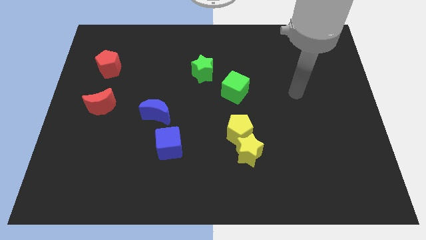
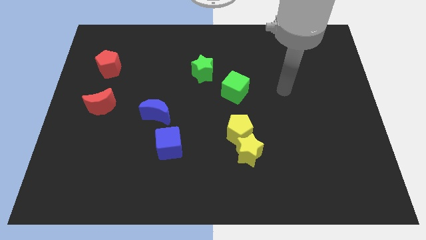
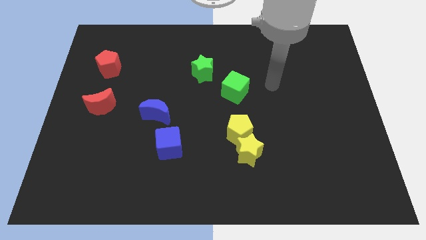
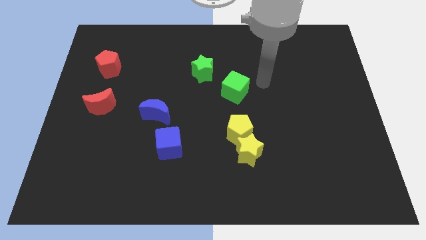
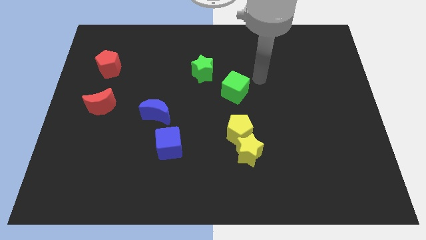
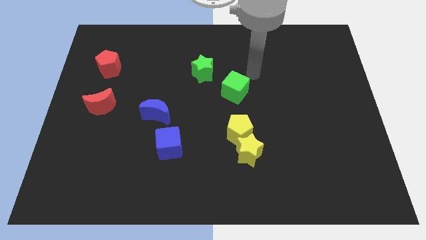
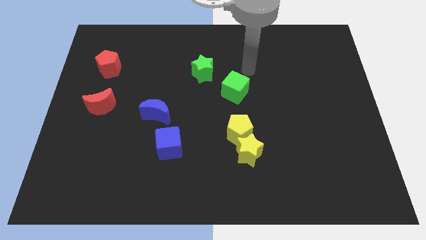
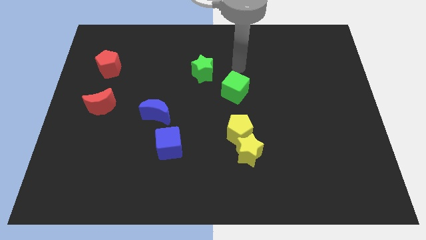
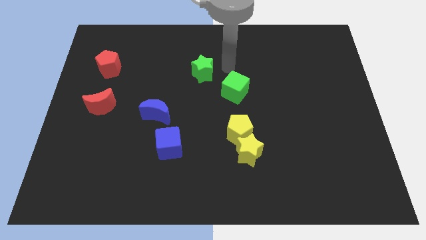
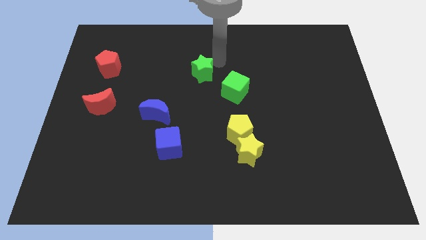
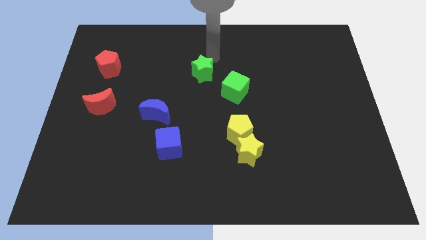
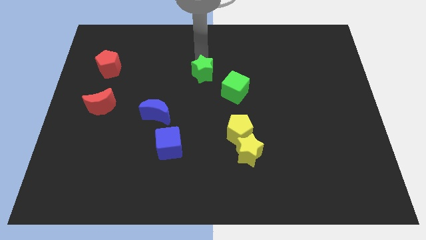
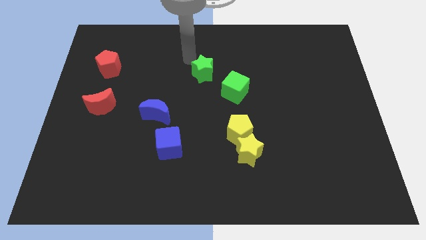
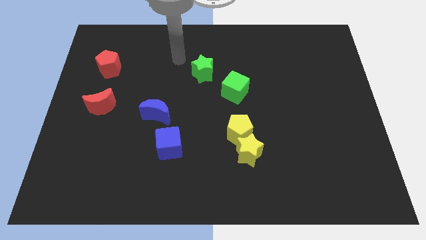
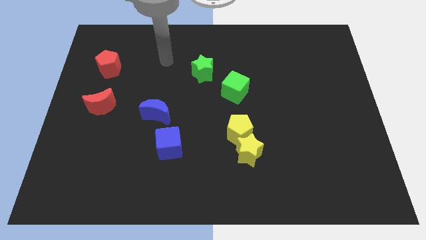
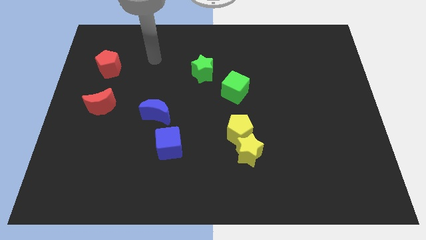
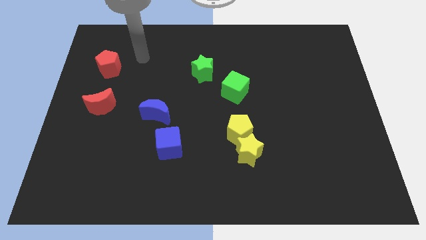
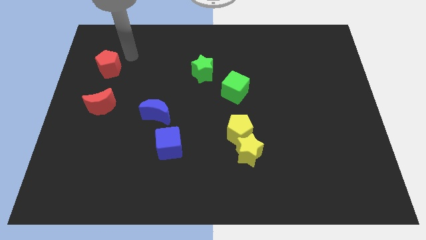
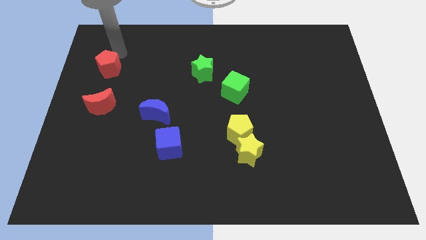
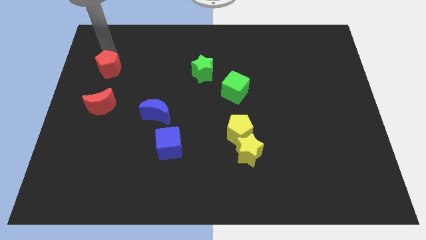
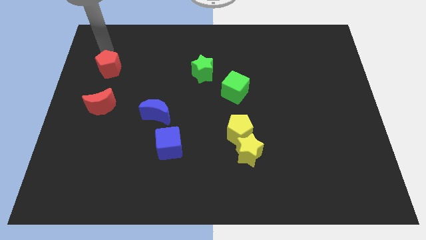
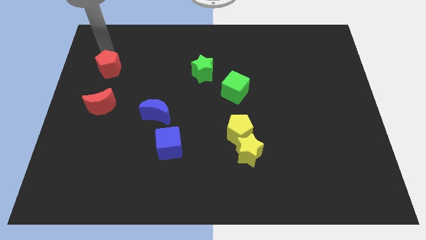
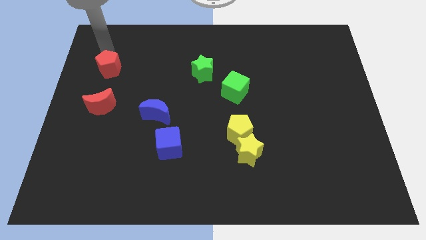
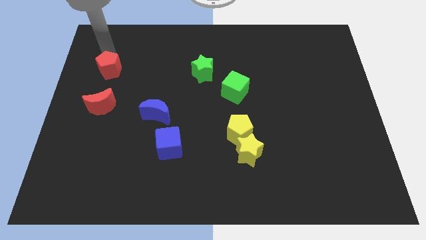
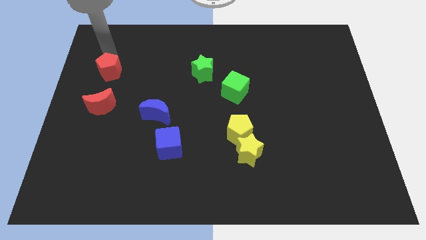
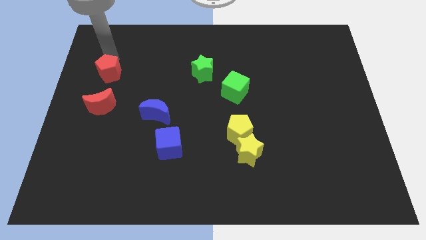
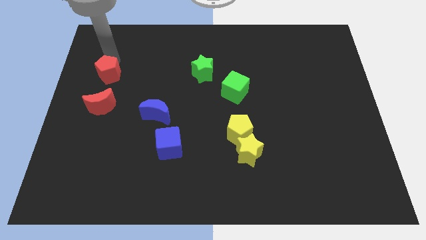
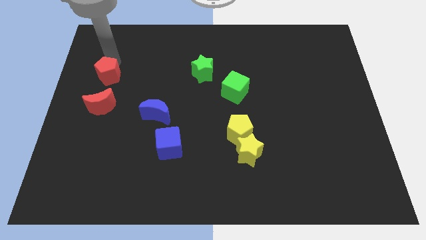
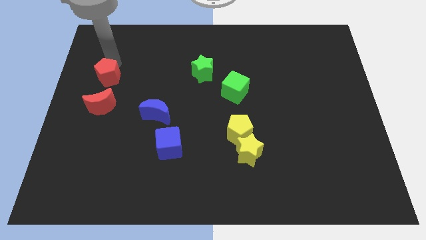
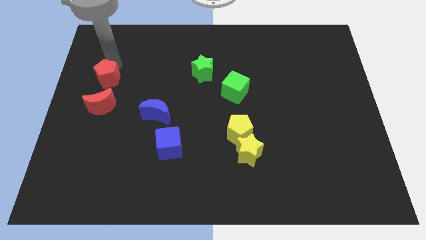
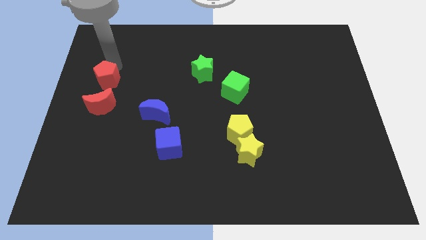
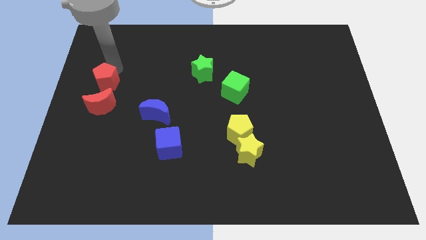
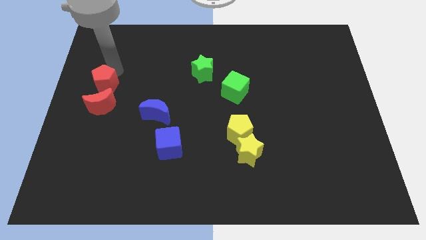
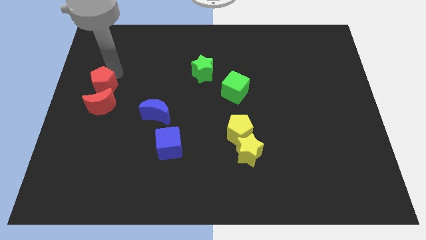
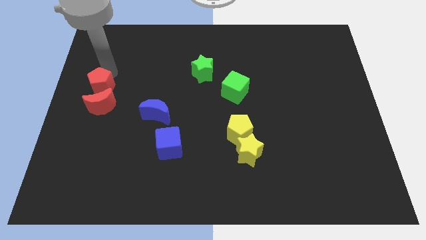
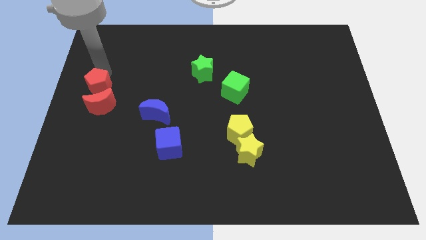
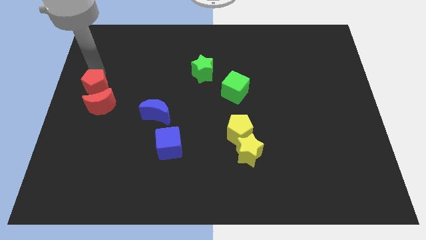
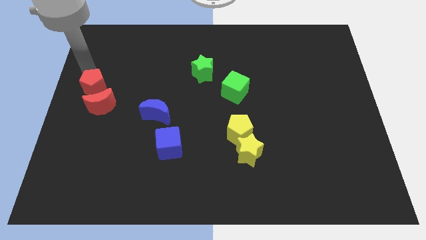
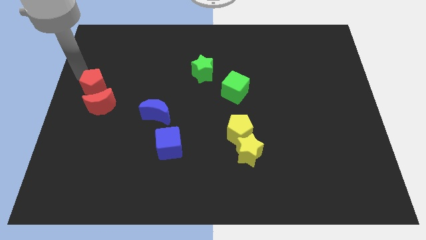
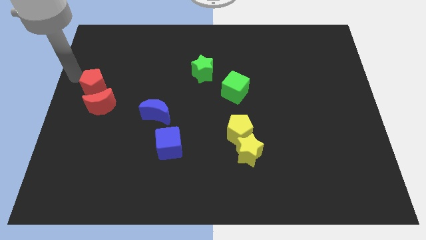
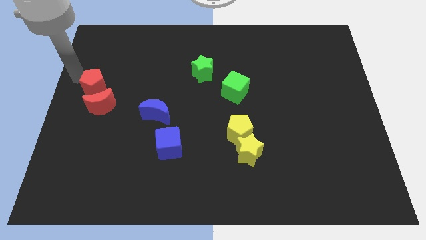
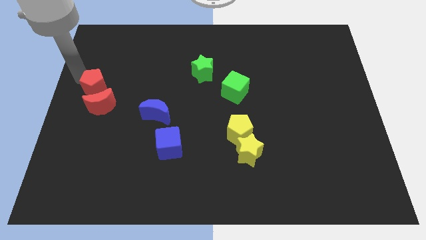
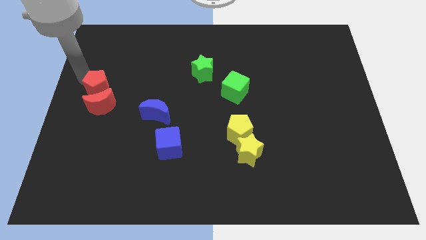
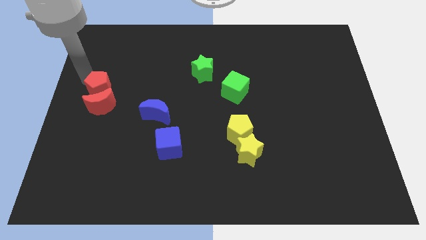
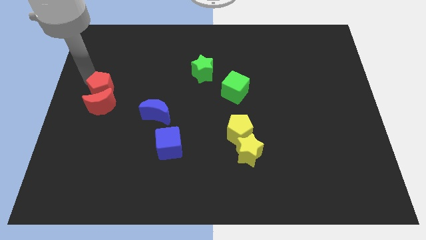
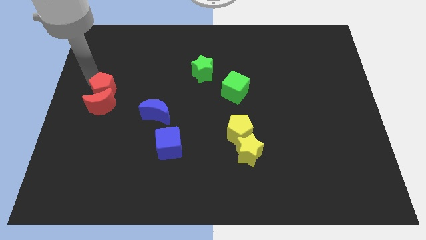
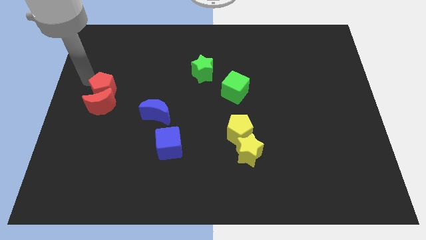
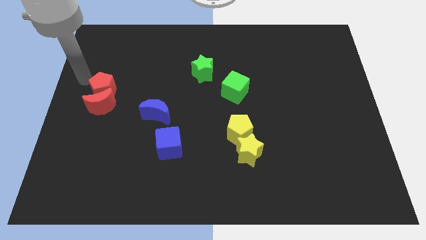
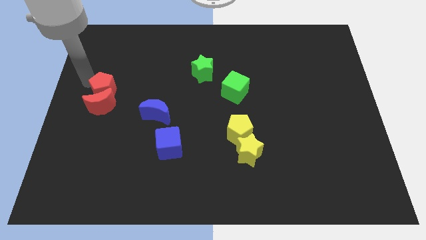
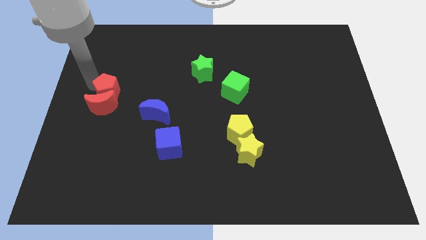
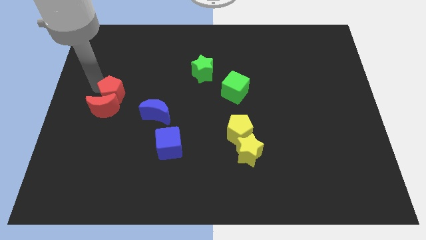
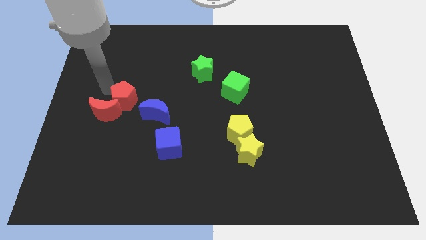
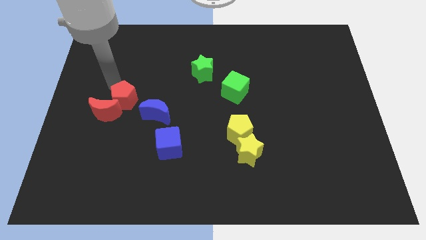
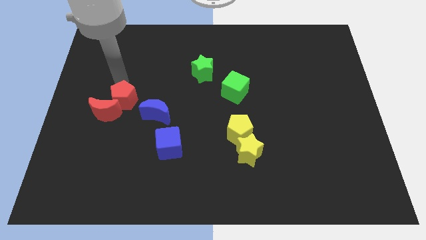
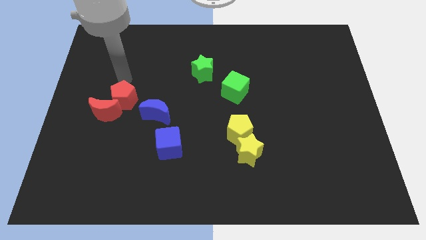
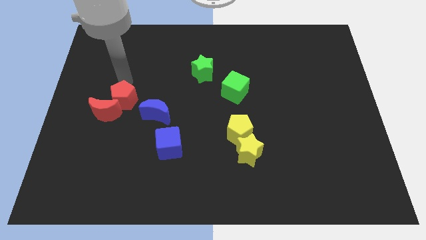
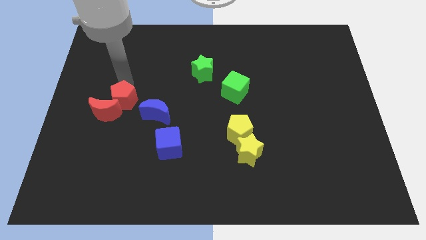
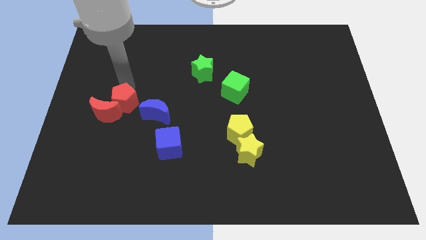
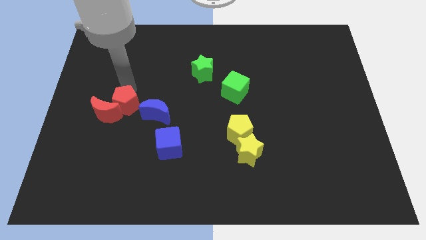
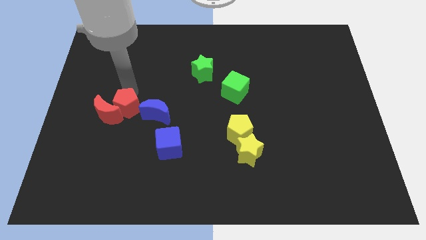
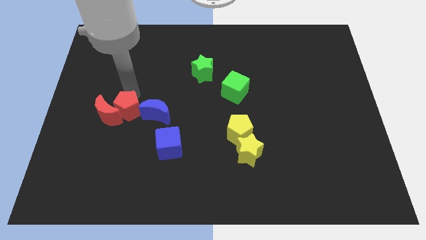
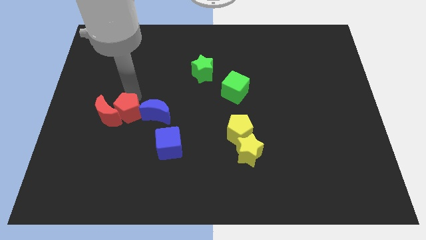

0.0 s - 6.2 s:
slide the red pentagon to the bottom right side of the red moon

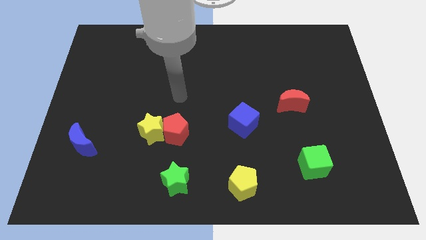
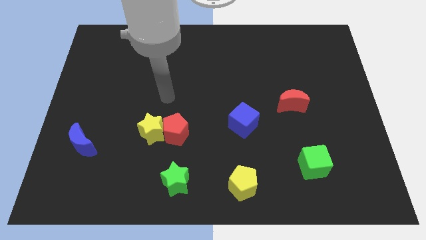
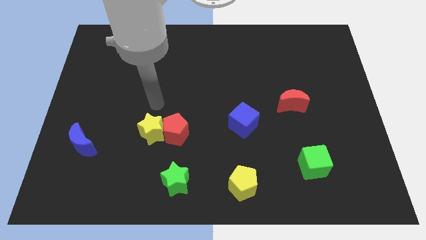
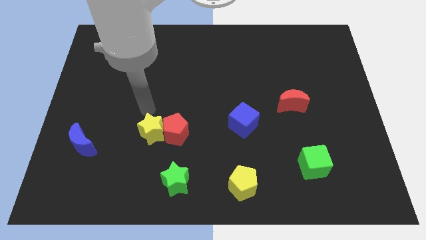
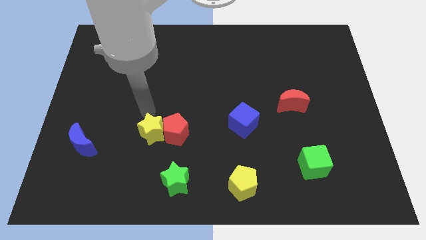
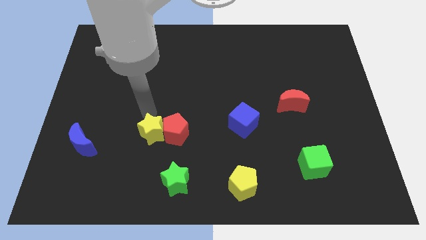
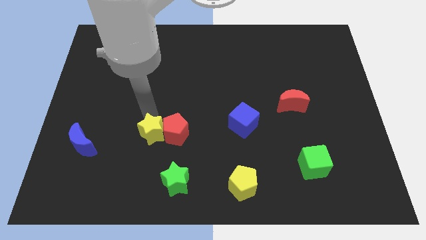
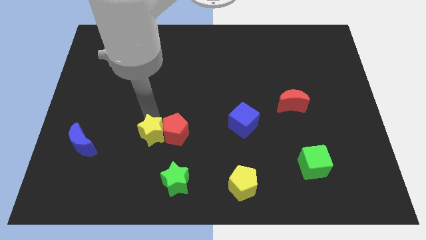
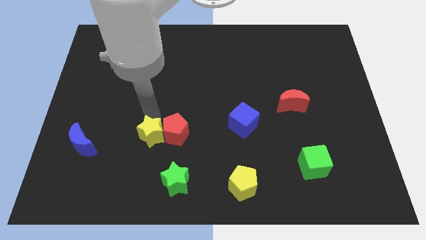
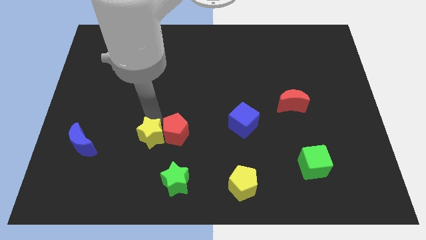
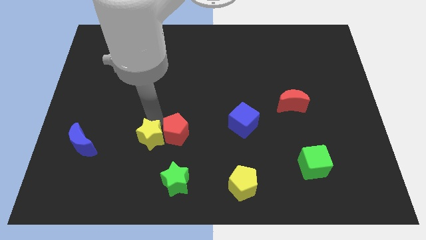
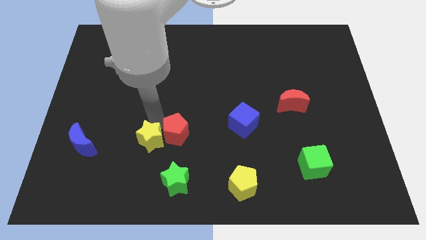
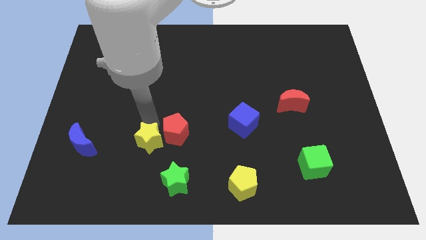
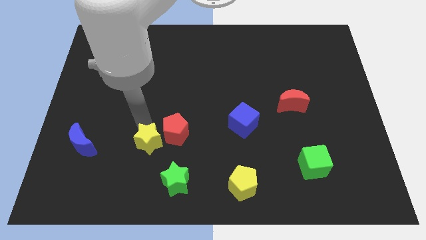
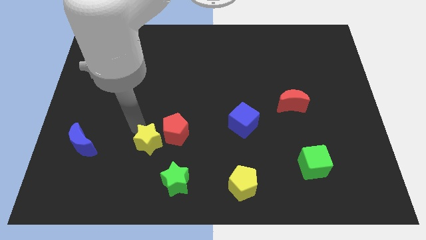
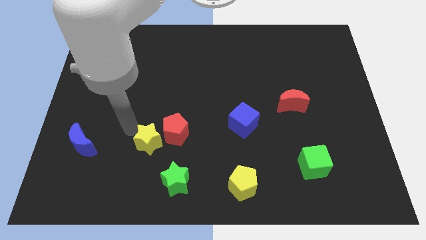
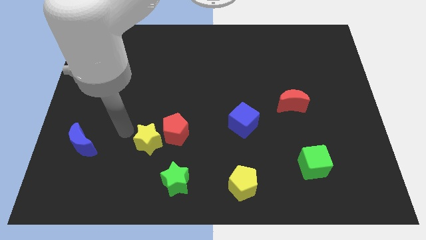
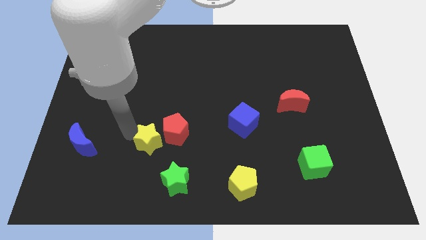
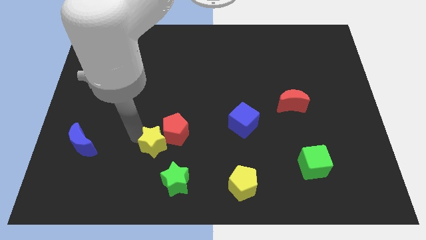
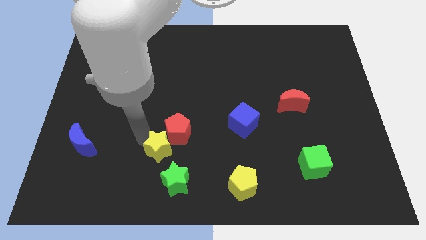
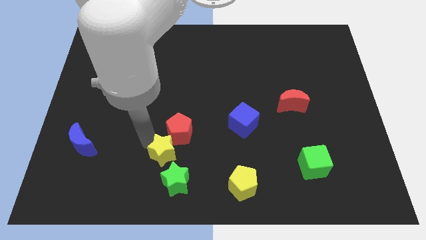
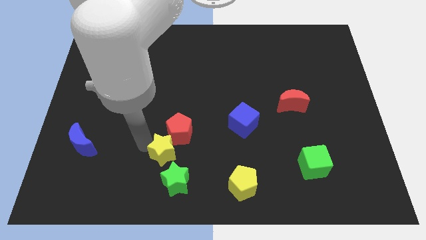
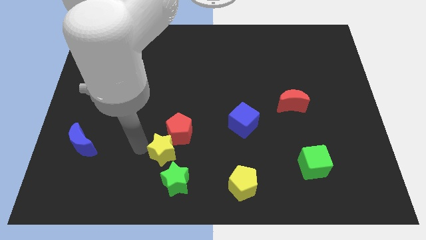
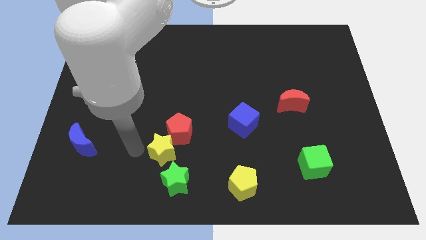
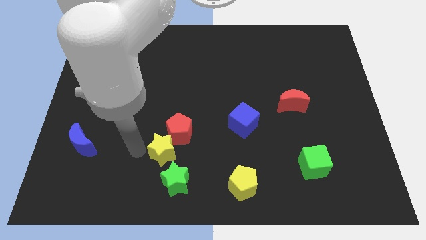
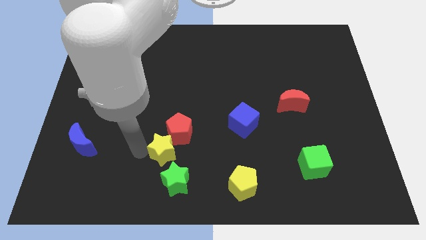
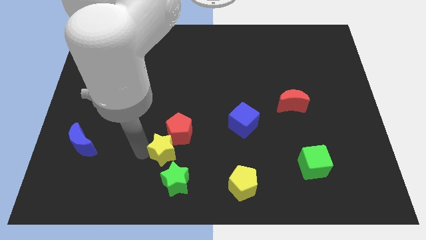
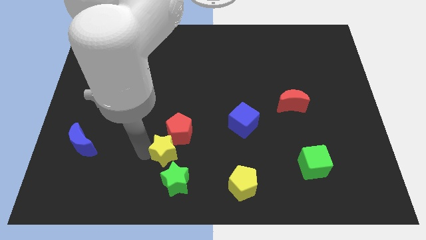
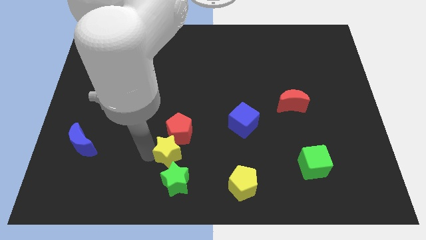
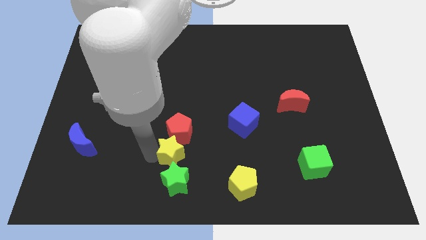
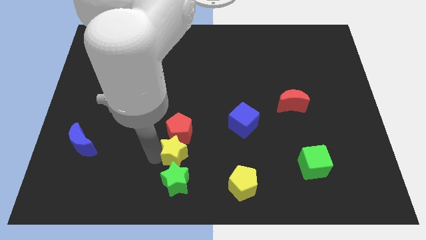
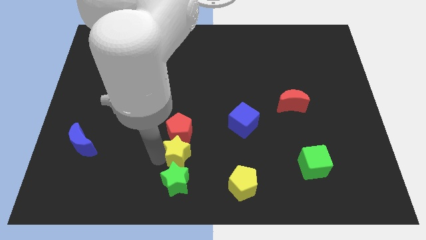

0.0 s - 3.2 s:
push the yellow star to the top right side of the green star
